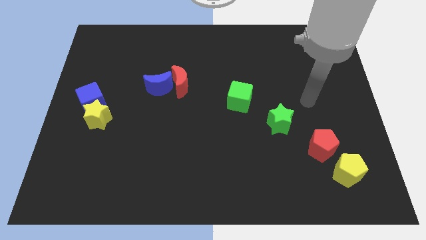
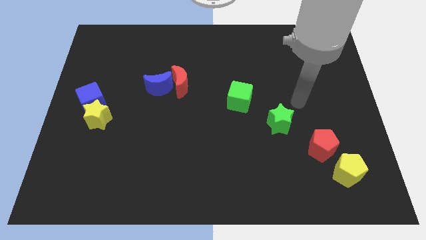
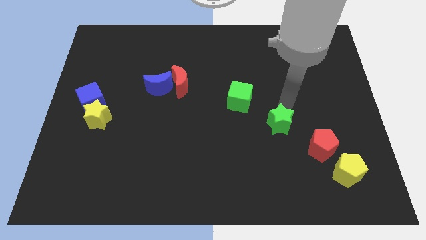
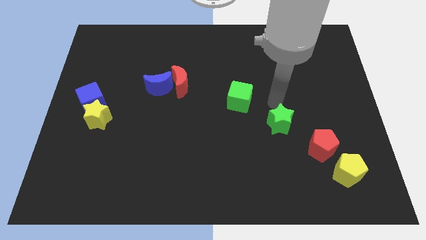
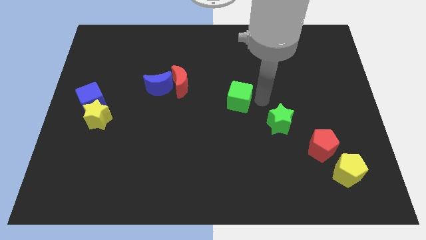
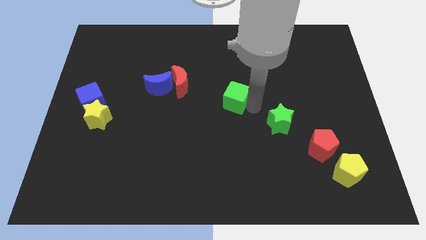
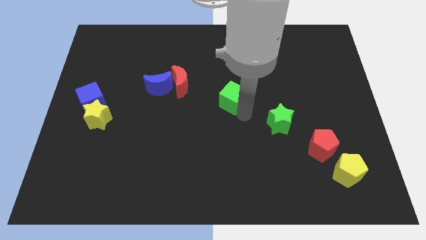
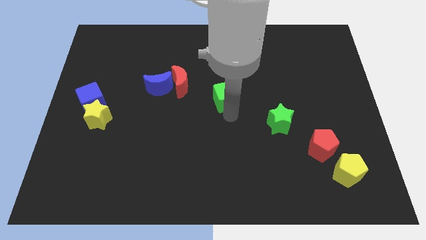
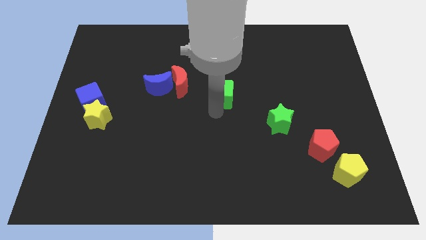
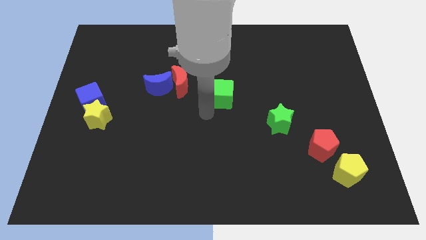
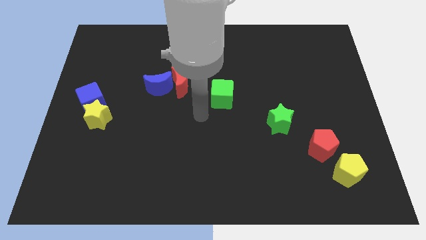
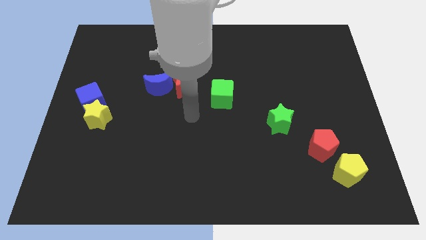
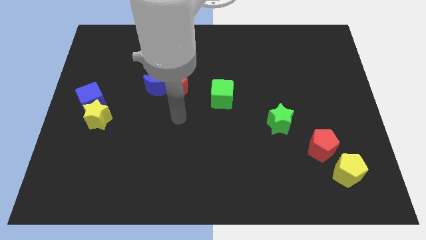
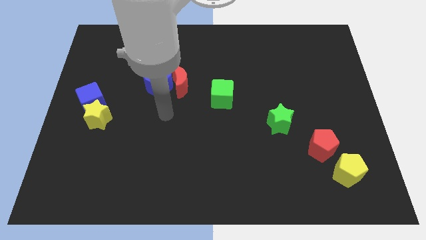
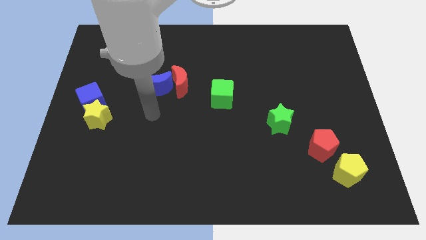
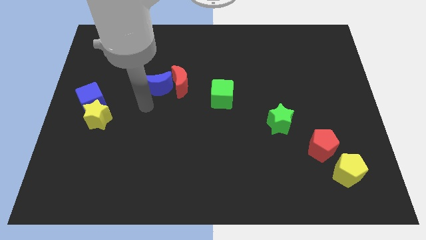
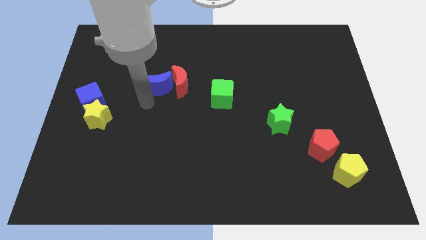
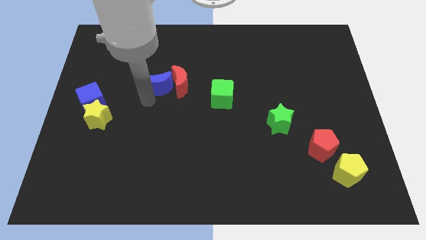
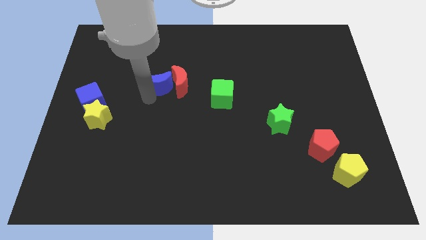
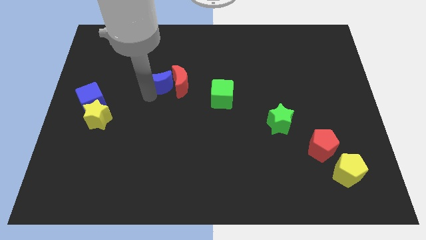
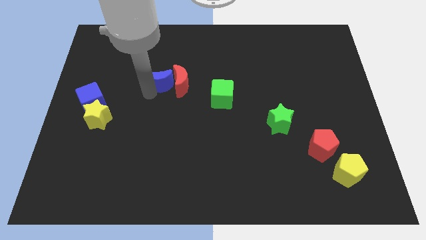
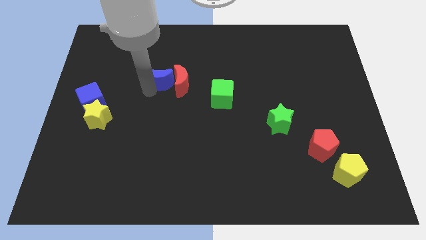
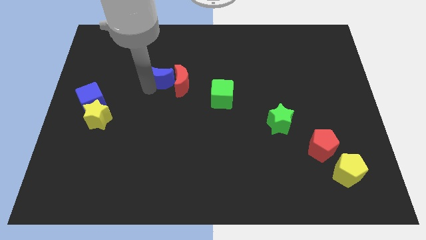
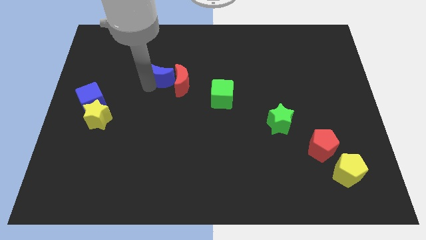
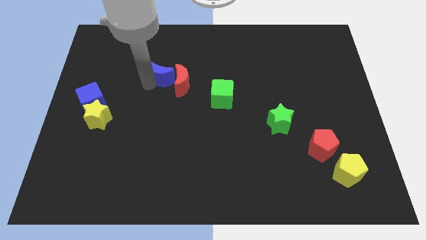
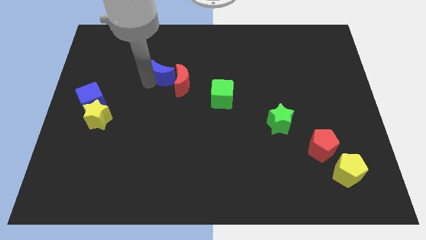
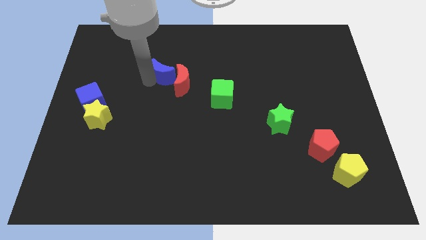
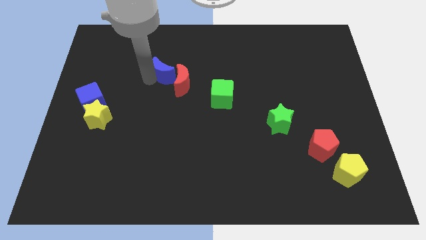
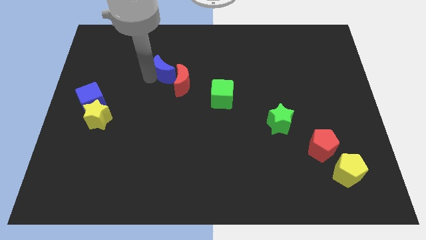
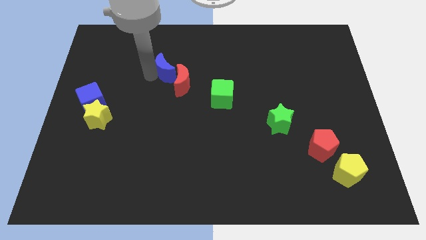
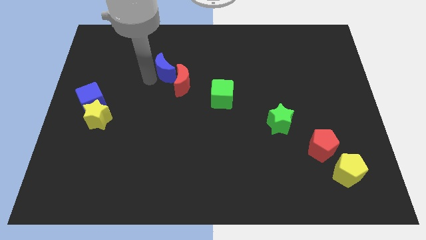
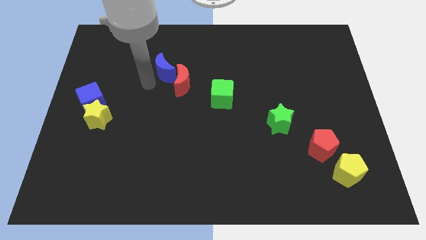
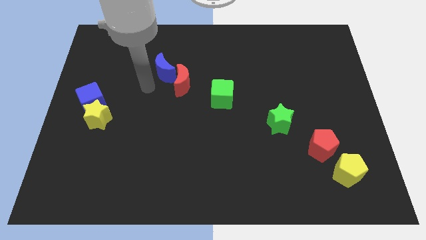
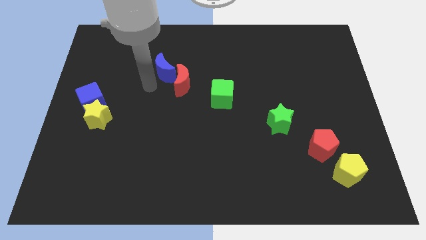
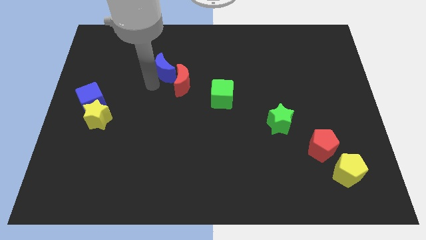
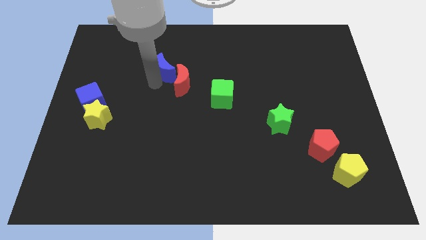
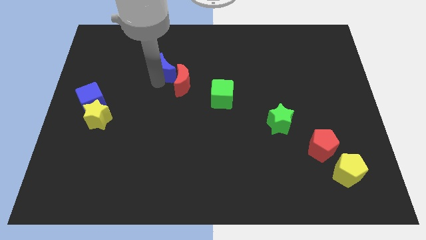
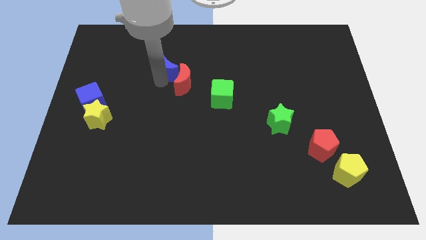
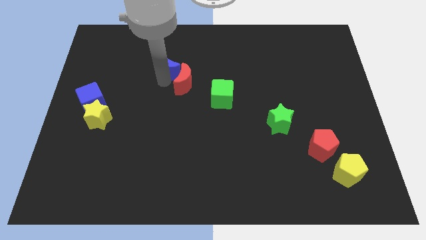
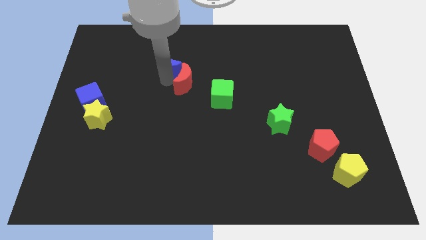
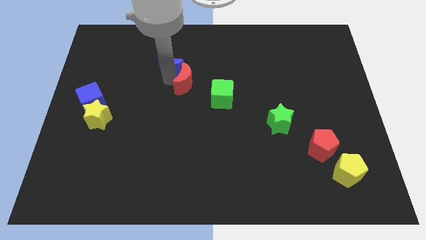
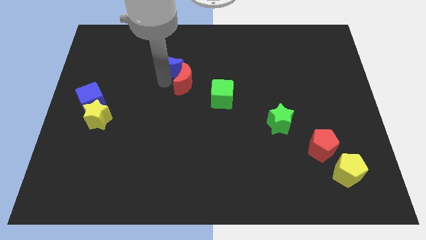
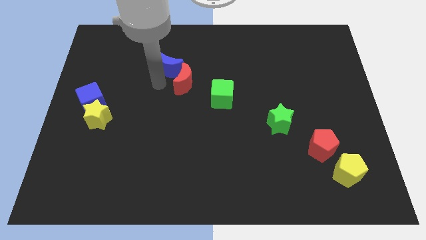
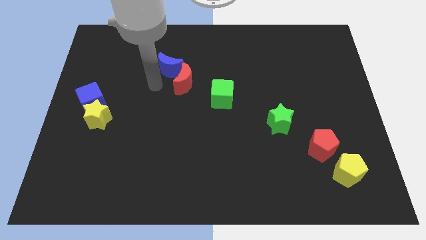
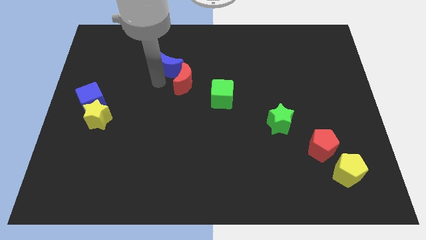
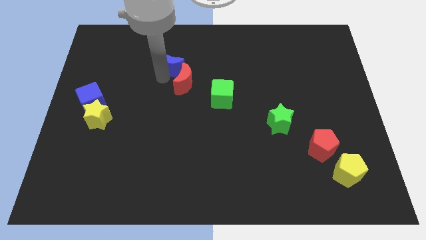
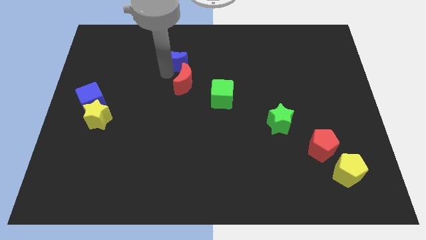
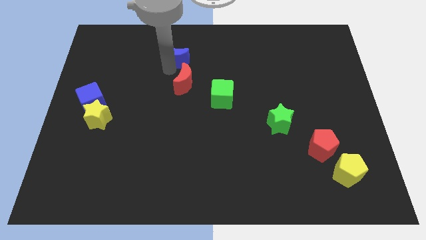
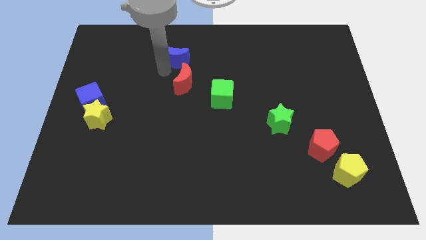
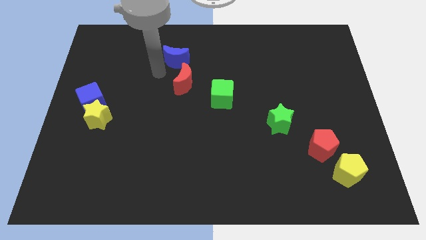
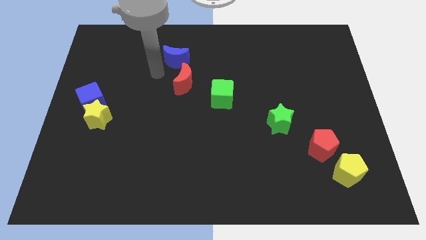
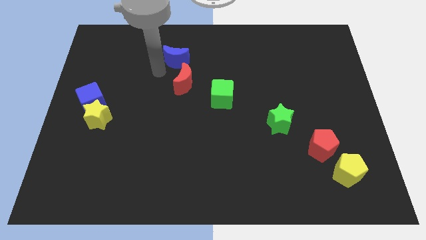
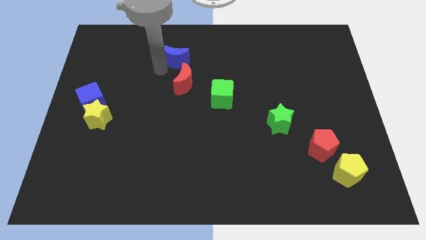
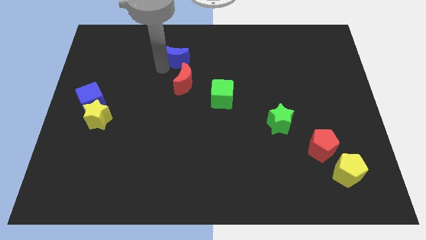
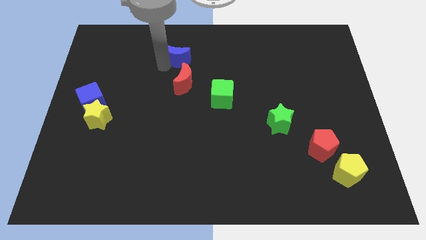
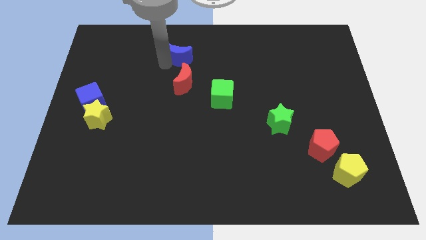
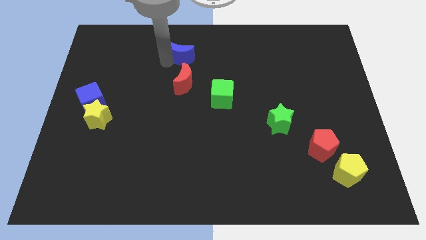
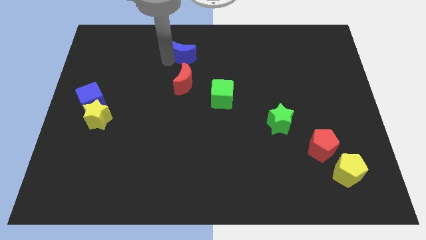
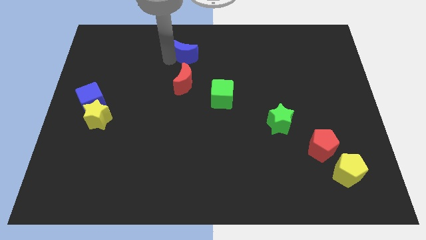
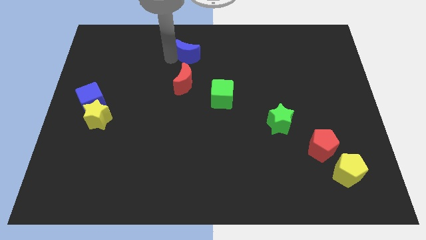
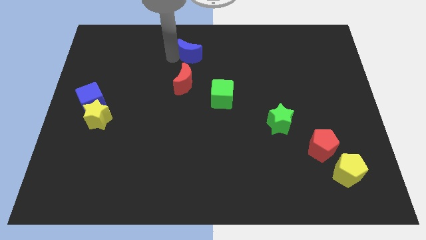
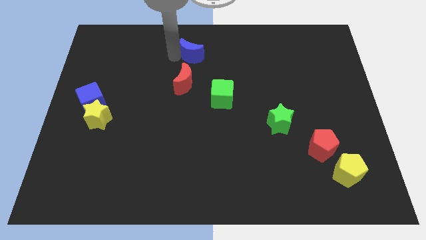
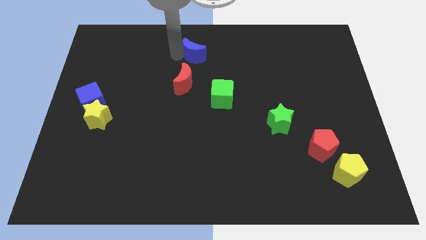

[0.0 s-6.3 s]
push the blue moon to the top
